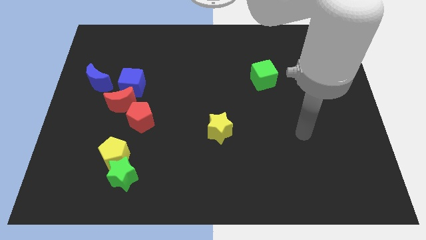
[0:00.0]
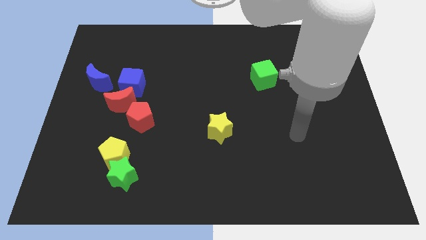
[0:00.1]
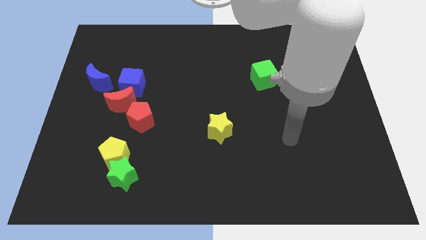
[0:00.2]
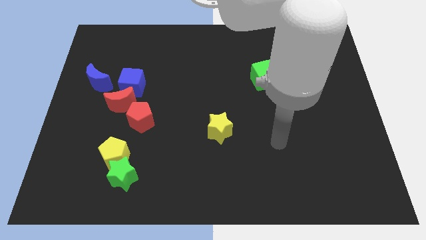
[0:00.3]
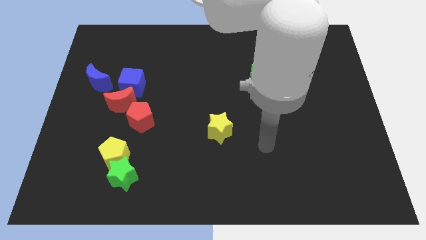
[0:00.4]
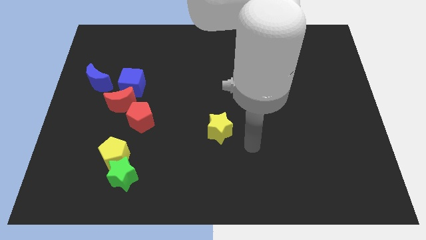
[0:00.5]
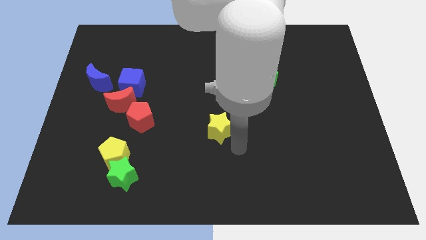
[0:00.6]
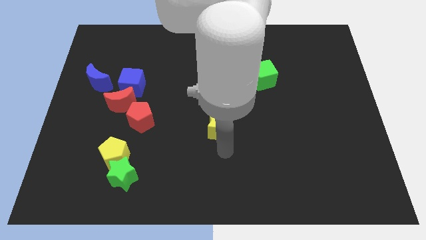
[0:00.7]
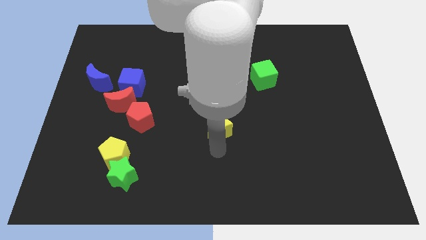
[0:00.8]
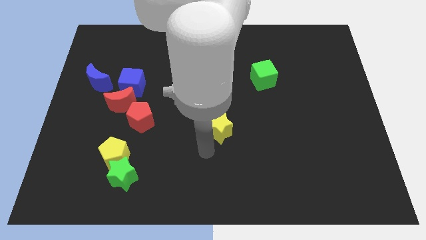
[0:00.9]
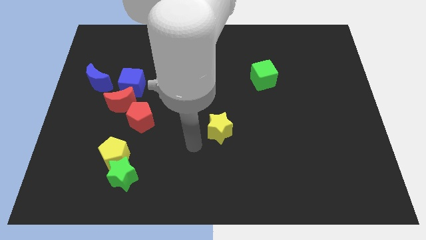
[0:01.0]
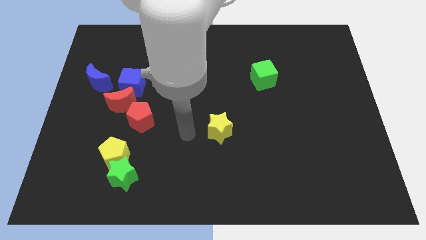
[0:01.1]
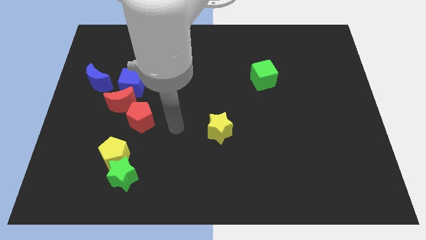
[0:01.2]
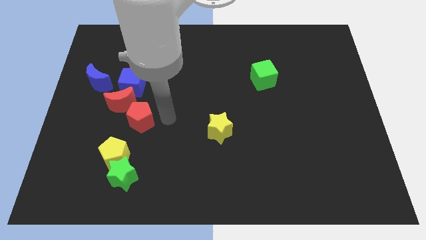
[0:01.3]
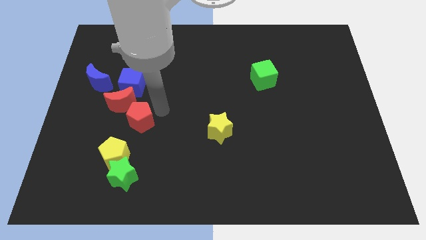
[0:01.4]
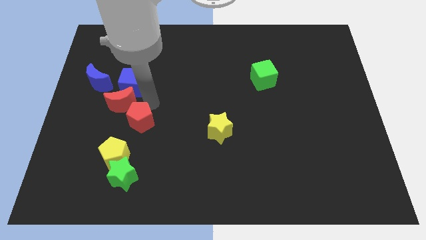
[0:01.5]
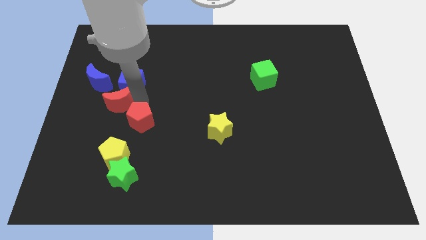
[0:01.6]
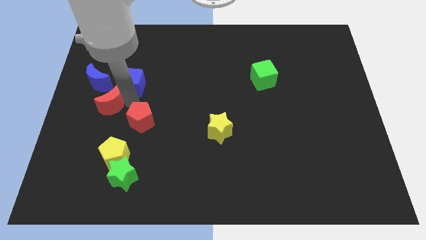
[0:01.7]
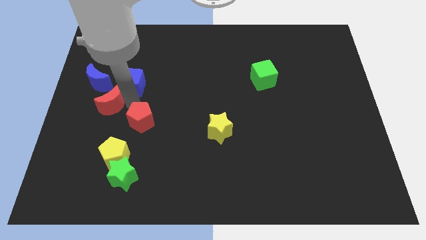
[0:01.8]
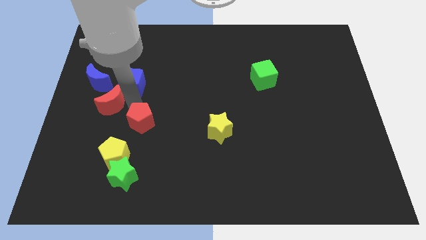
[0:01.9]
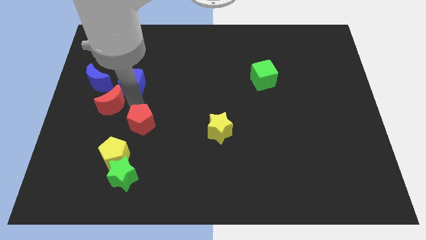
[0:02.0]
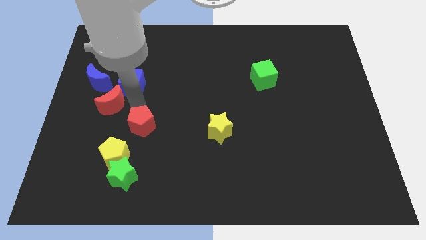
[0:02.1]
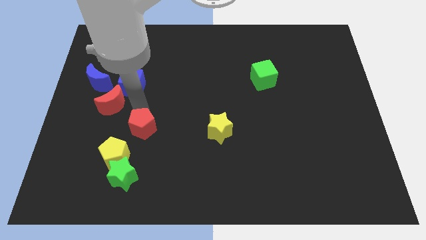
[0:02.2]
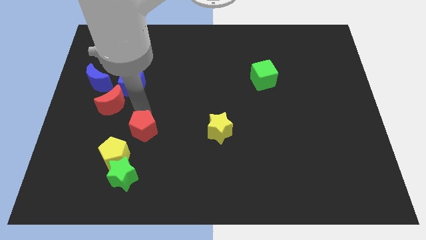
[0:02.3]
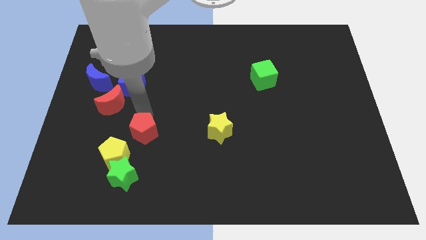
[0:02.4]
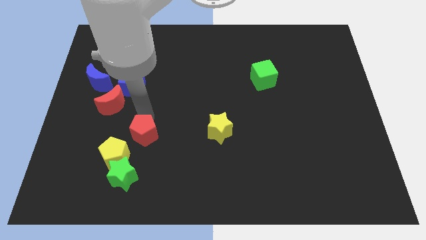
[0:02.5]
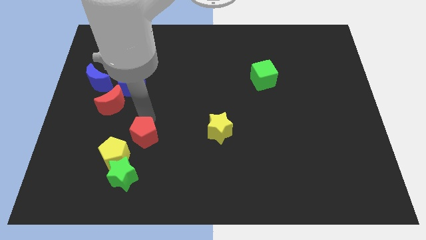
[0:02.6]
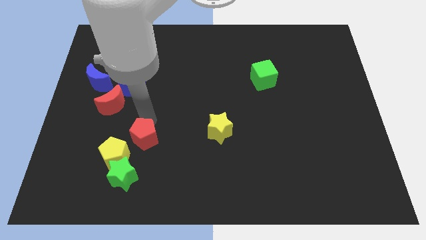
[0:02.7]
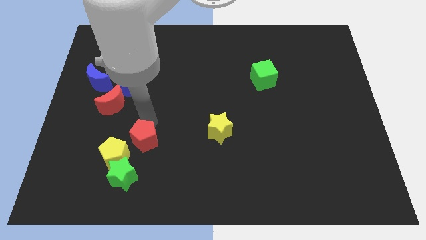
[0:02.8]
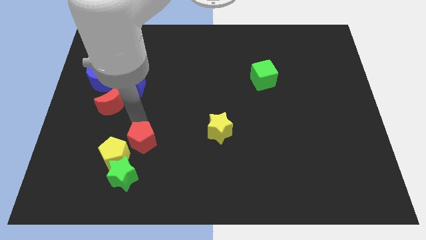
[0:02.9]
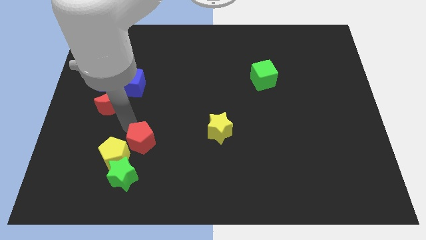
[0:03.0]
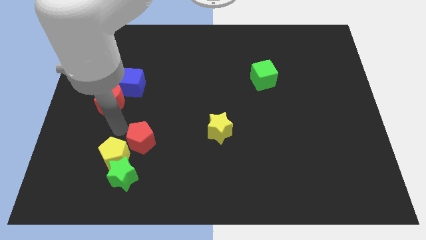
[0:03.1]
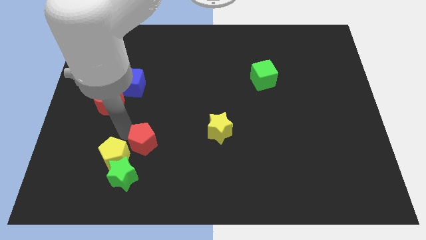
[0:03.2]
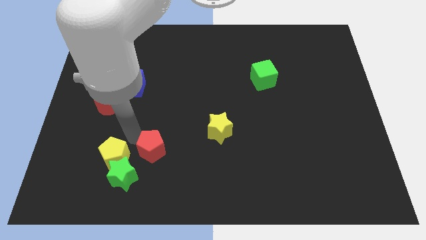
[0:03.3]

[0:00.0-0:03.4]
slide the red pentagon a bit downwards and to the right

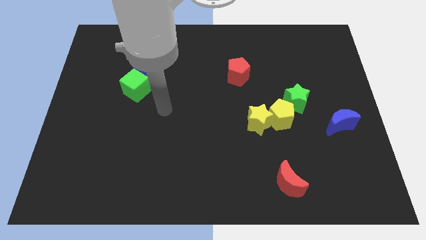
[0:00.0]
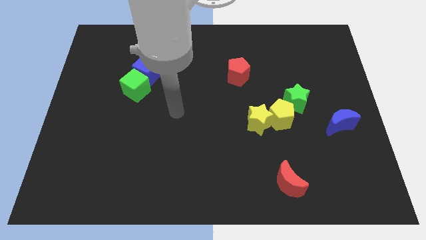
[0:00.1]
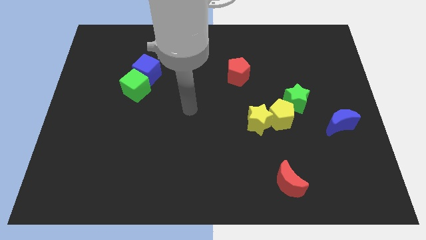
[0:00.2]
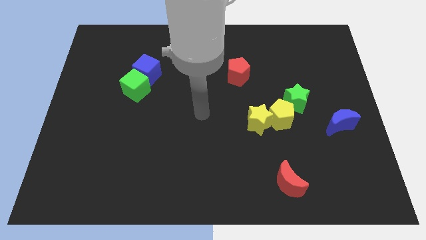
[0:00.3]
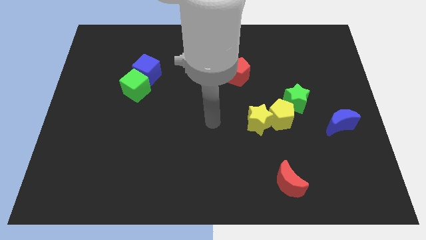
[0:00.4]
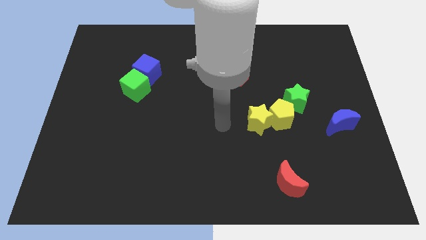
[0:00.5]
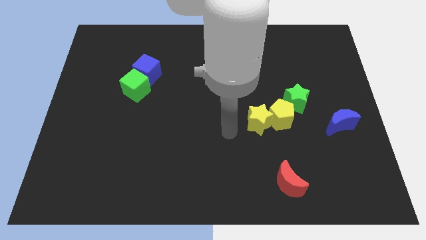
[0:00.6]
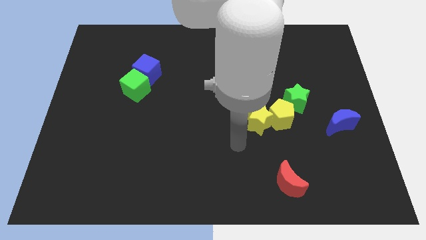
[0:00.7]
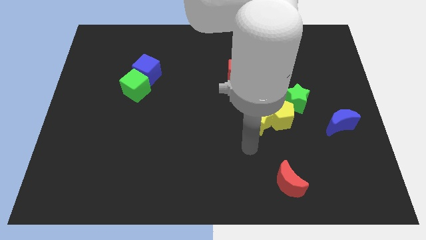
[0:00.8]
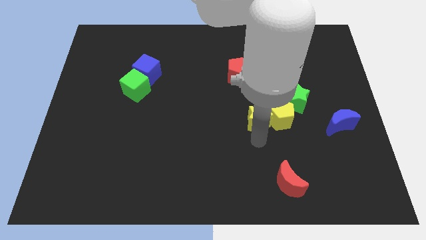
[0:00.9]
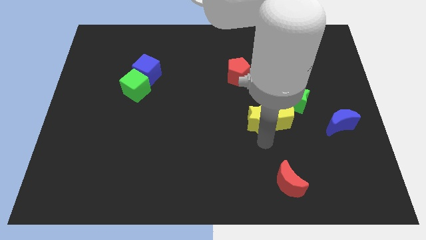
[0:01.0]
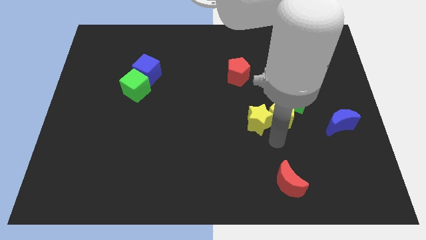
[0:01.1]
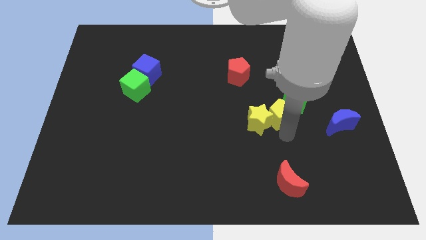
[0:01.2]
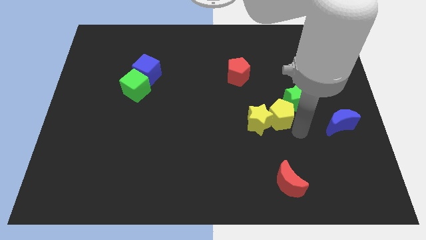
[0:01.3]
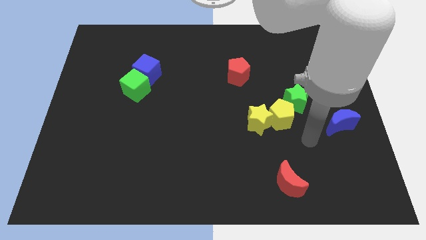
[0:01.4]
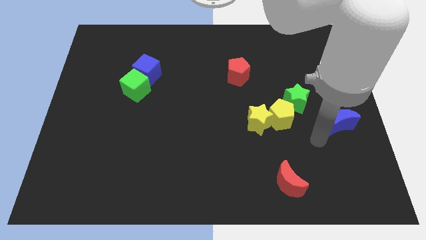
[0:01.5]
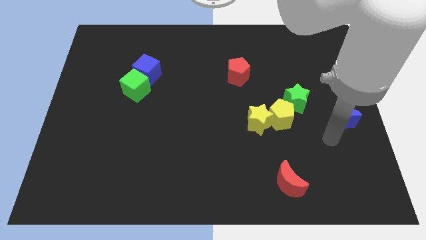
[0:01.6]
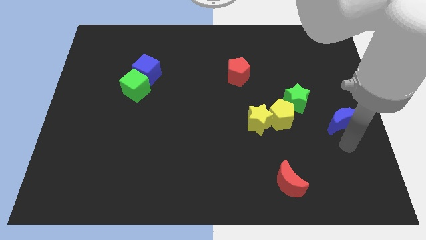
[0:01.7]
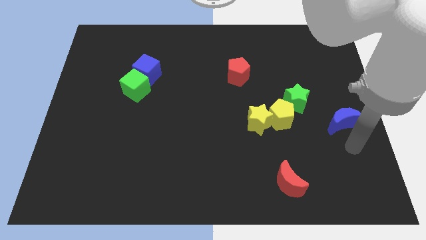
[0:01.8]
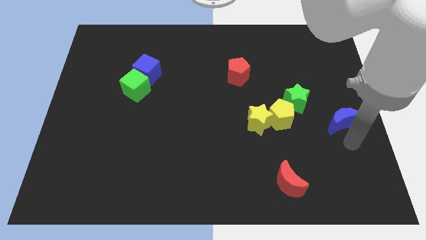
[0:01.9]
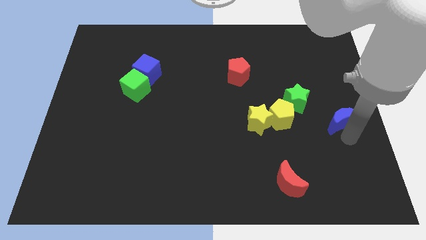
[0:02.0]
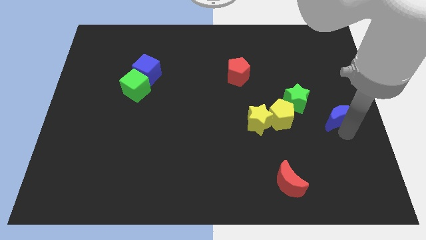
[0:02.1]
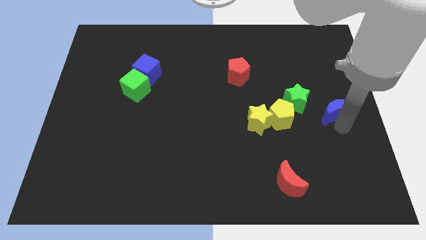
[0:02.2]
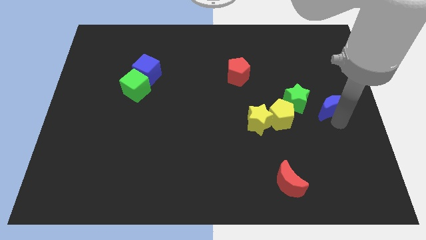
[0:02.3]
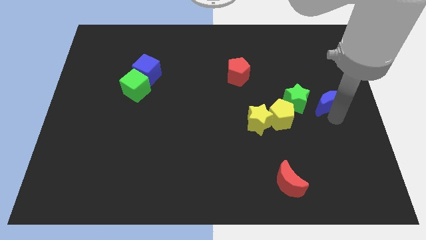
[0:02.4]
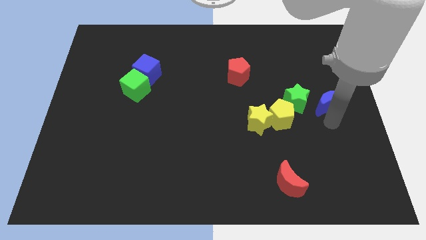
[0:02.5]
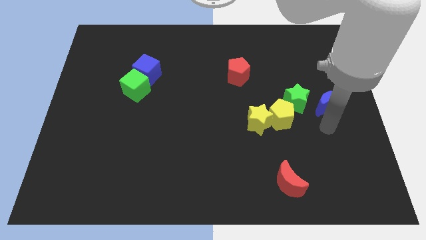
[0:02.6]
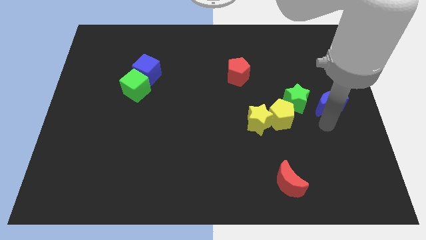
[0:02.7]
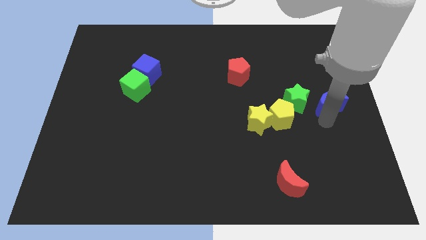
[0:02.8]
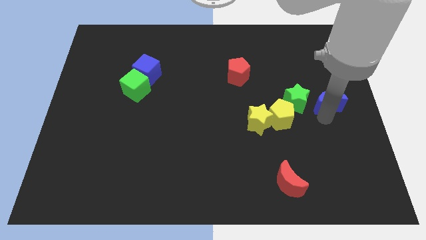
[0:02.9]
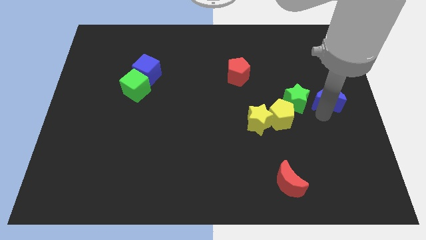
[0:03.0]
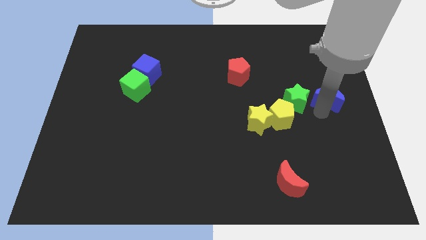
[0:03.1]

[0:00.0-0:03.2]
push the blue moon upwards slightly

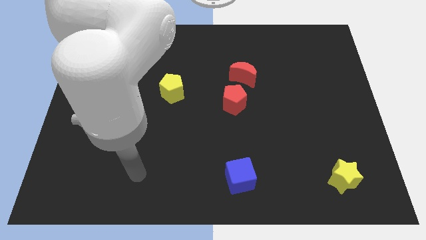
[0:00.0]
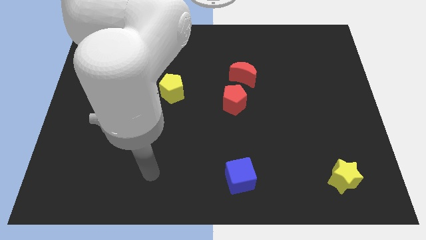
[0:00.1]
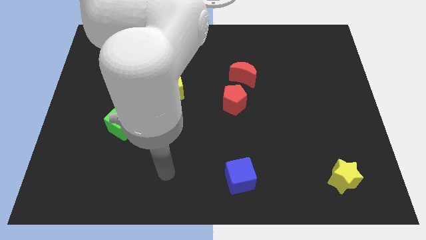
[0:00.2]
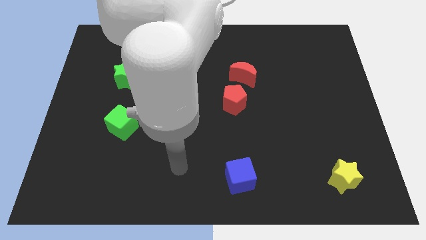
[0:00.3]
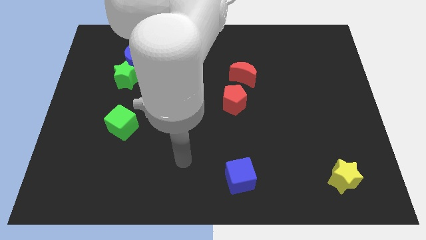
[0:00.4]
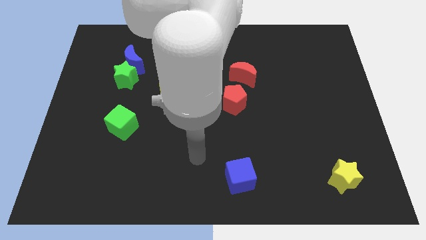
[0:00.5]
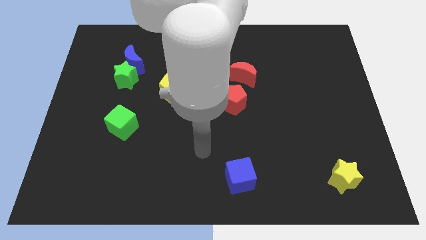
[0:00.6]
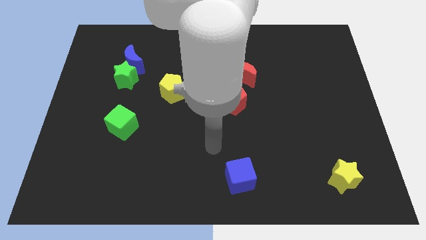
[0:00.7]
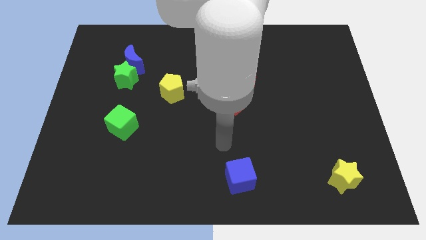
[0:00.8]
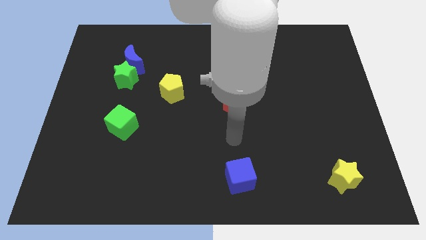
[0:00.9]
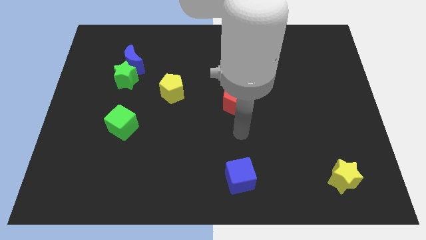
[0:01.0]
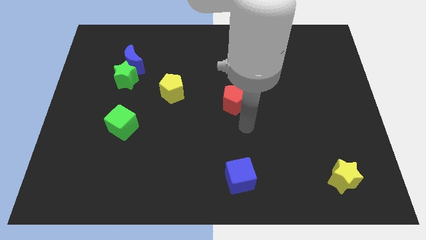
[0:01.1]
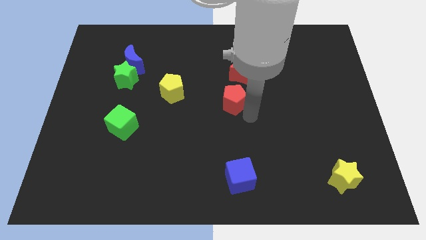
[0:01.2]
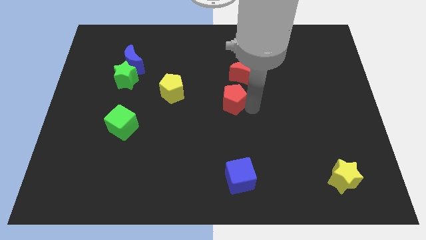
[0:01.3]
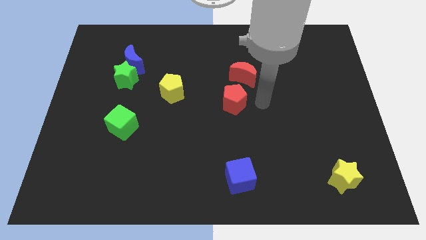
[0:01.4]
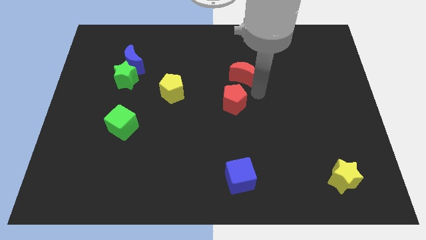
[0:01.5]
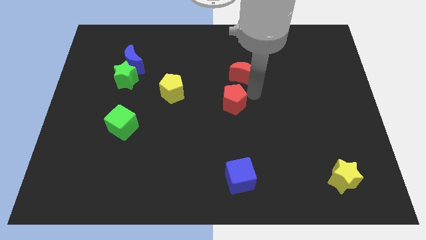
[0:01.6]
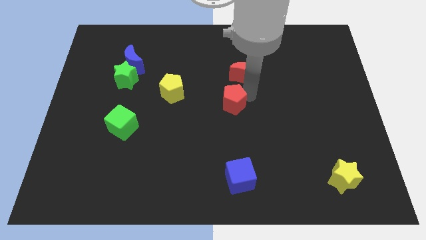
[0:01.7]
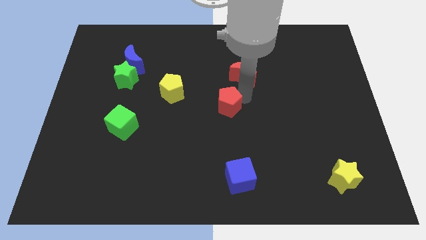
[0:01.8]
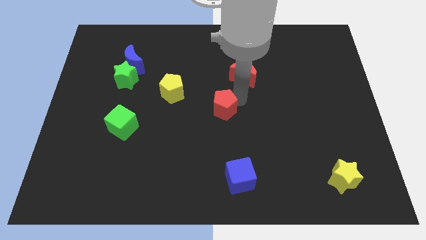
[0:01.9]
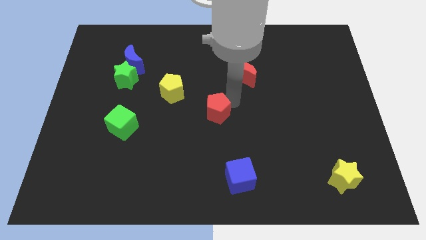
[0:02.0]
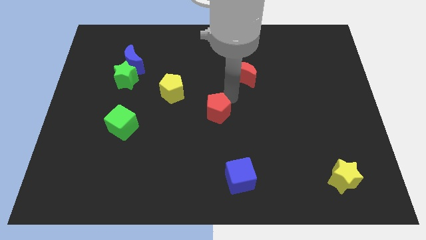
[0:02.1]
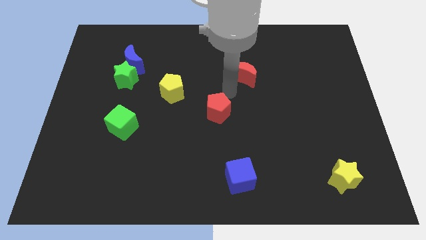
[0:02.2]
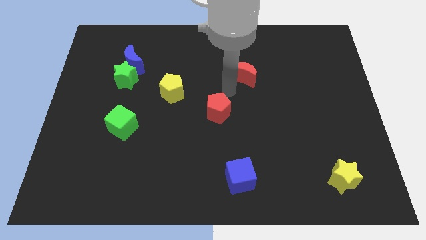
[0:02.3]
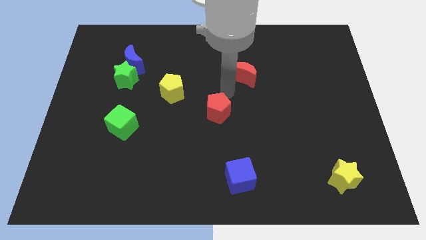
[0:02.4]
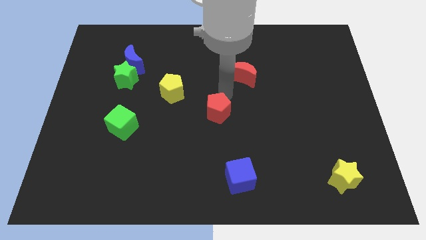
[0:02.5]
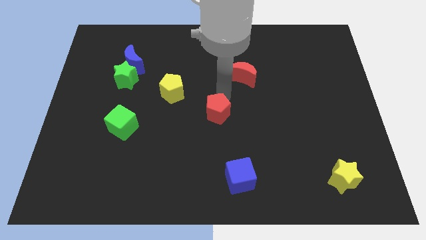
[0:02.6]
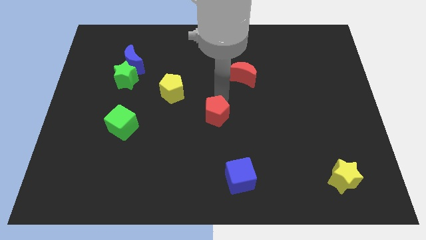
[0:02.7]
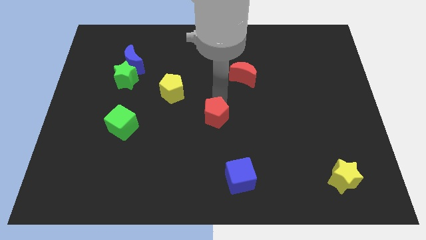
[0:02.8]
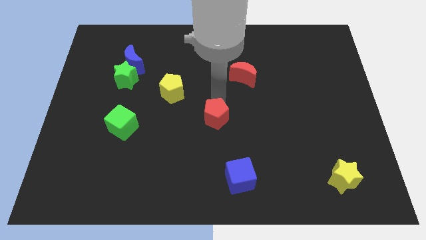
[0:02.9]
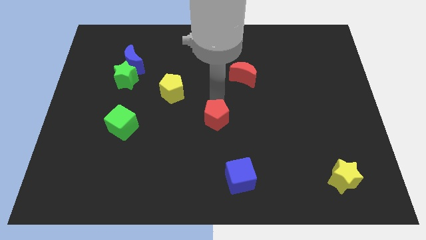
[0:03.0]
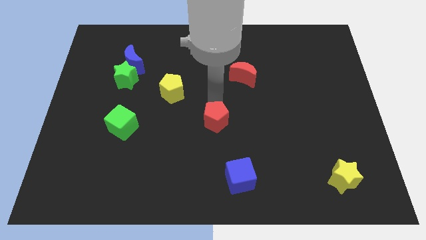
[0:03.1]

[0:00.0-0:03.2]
move the red pentagon diagonally down and left slightly
